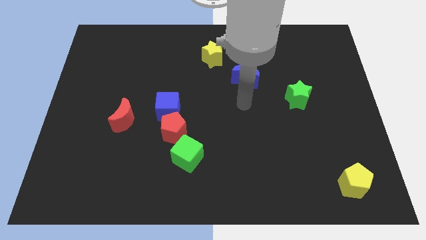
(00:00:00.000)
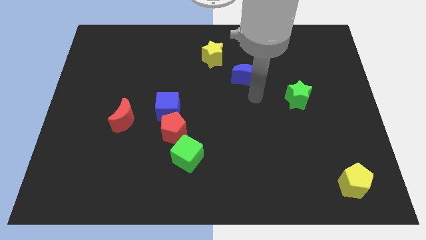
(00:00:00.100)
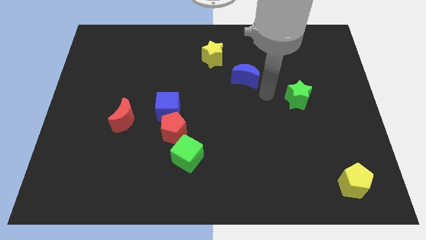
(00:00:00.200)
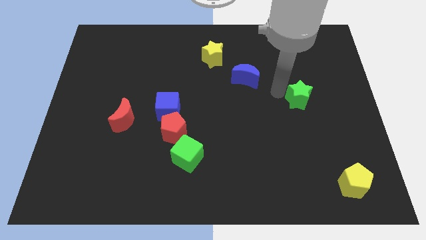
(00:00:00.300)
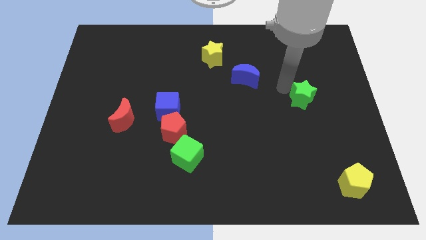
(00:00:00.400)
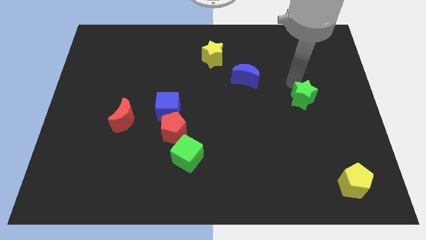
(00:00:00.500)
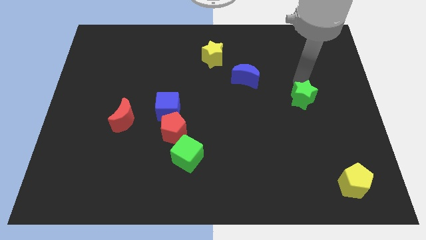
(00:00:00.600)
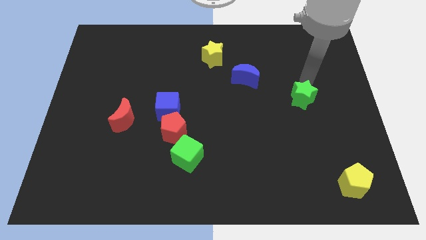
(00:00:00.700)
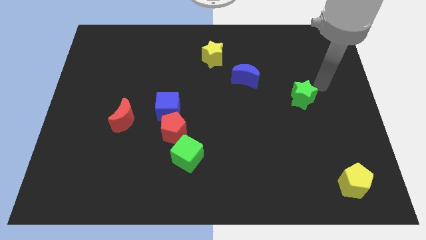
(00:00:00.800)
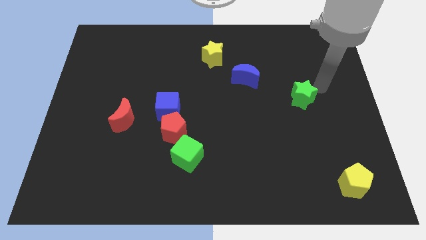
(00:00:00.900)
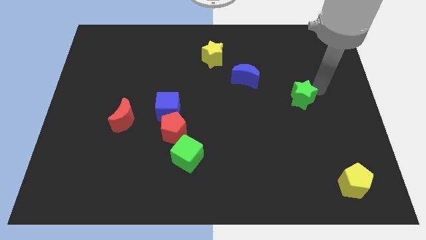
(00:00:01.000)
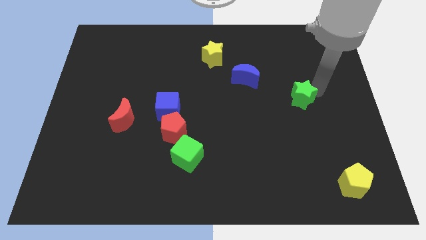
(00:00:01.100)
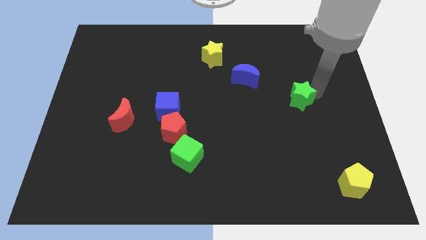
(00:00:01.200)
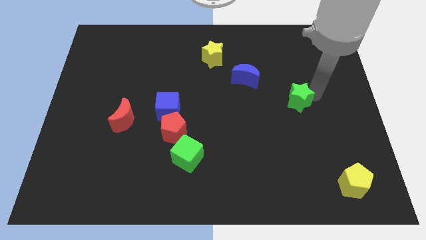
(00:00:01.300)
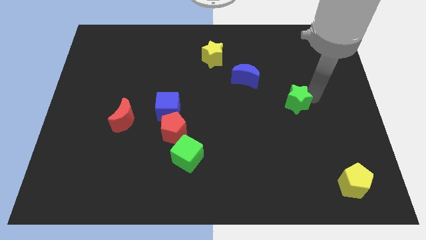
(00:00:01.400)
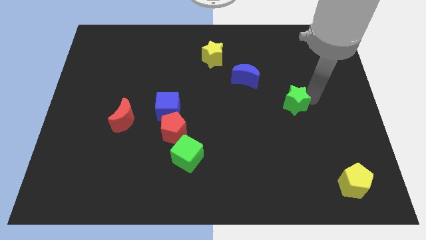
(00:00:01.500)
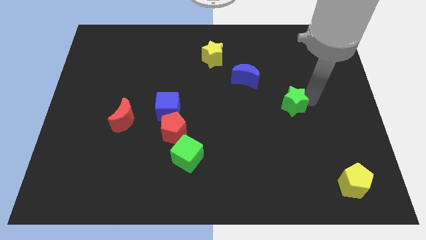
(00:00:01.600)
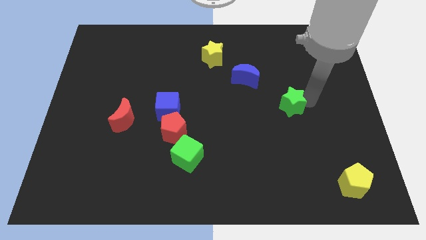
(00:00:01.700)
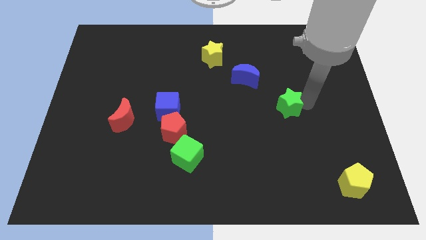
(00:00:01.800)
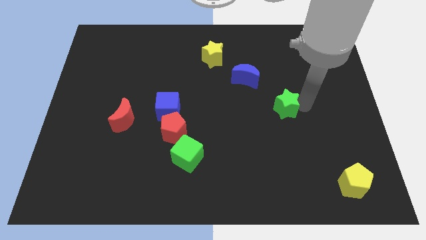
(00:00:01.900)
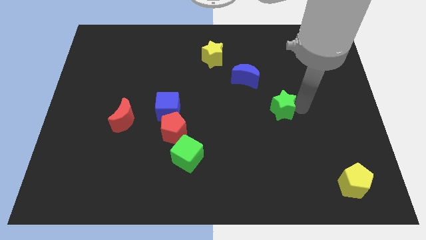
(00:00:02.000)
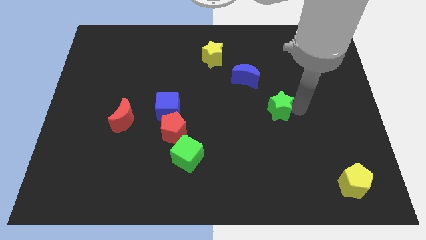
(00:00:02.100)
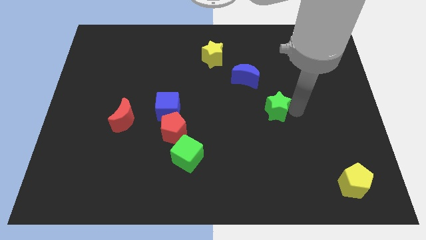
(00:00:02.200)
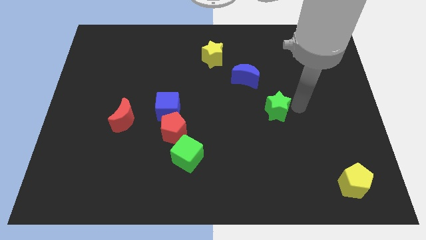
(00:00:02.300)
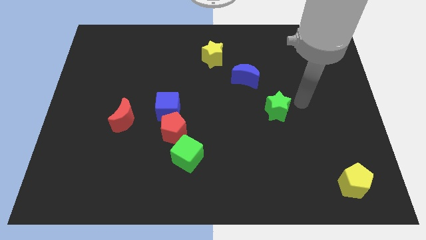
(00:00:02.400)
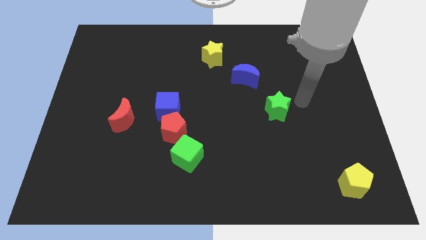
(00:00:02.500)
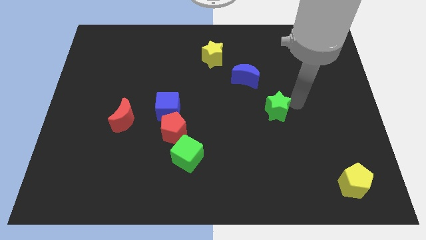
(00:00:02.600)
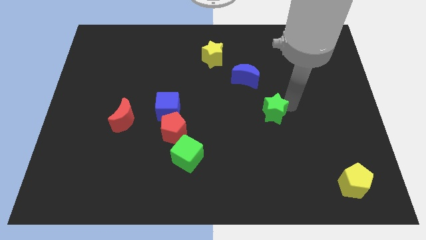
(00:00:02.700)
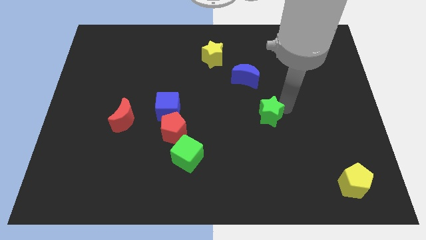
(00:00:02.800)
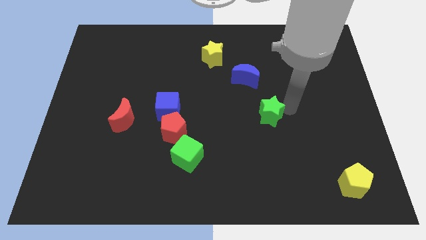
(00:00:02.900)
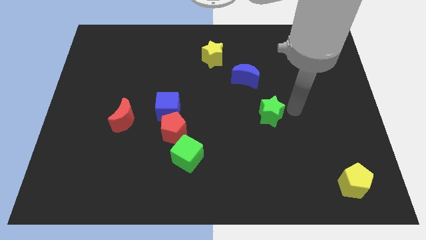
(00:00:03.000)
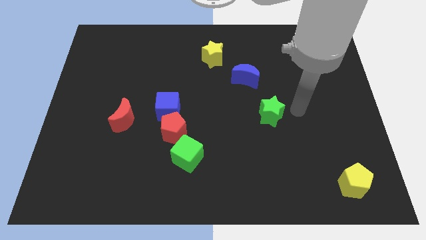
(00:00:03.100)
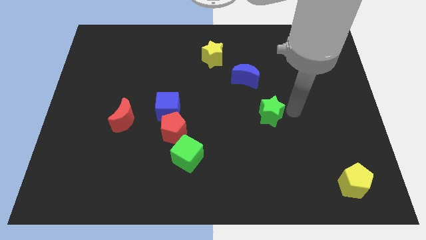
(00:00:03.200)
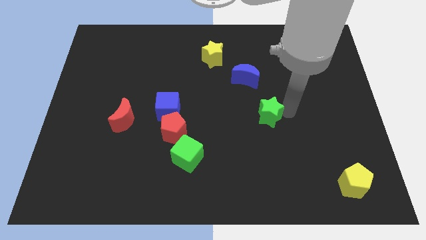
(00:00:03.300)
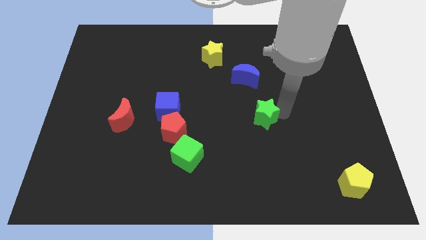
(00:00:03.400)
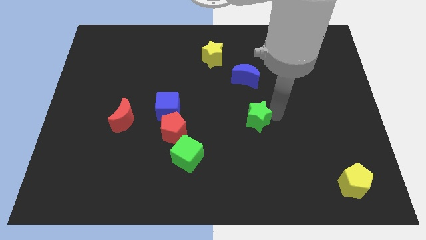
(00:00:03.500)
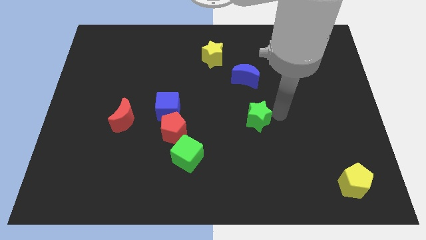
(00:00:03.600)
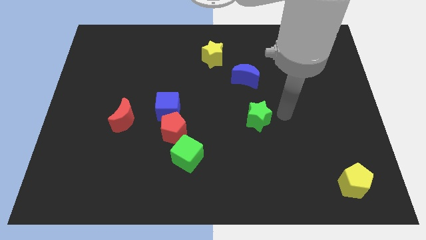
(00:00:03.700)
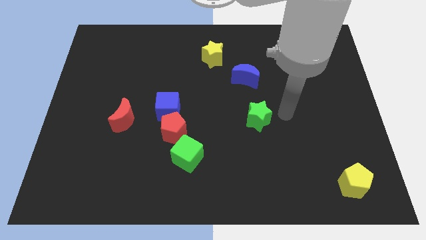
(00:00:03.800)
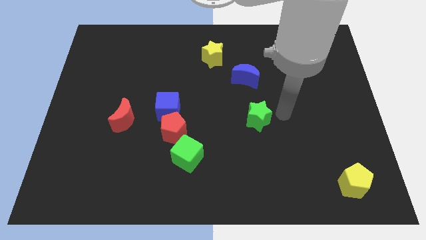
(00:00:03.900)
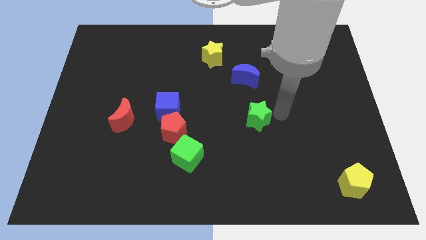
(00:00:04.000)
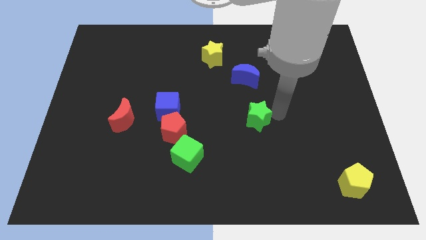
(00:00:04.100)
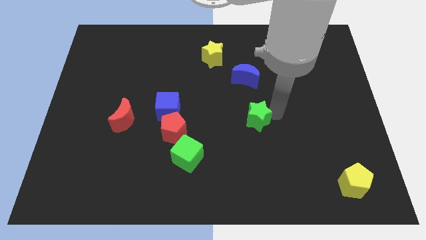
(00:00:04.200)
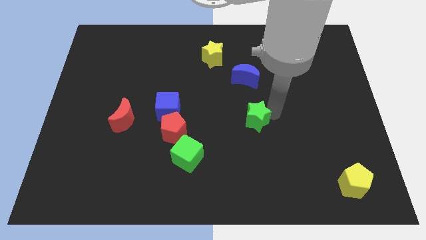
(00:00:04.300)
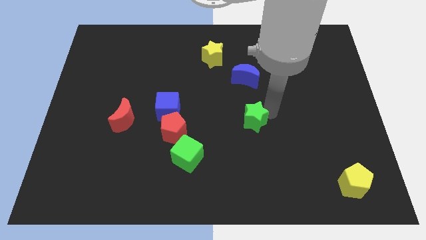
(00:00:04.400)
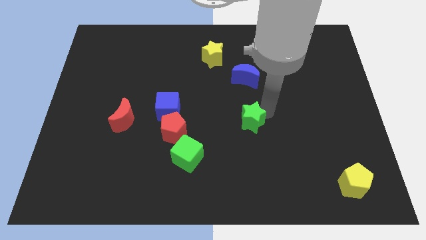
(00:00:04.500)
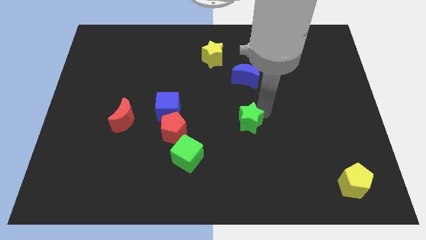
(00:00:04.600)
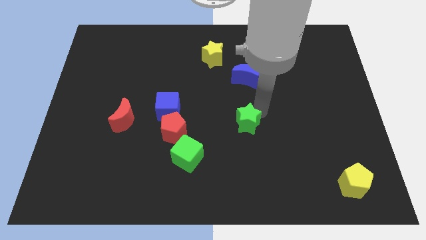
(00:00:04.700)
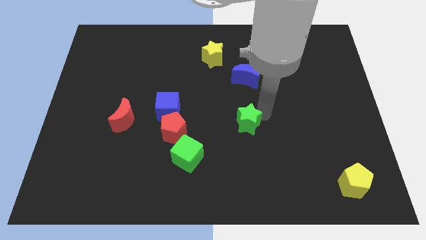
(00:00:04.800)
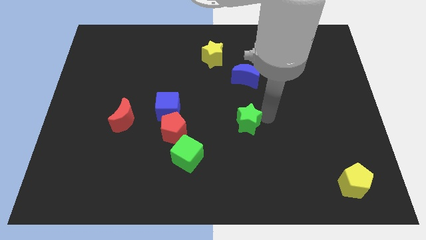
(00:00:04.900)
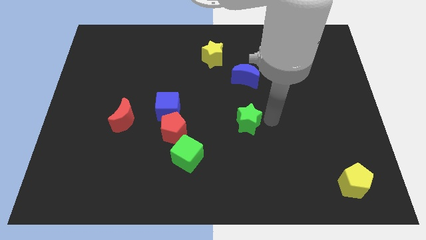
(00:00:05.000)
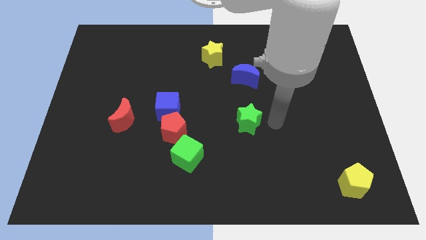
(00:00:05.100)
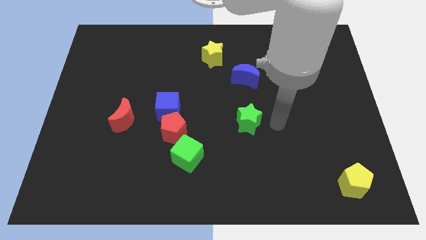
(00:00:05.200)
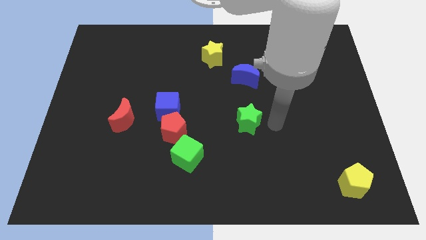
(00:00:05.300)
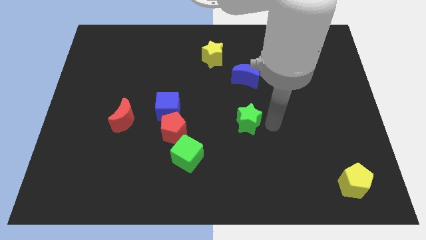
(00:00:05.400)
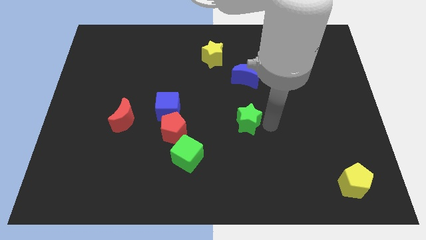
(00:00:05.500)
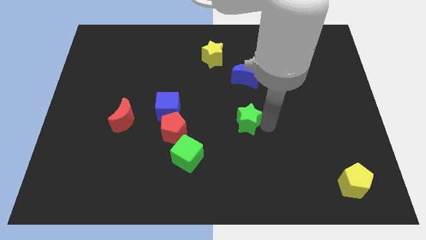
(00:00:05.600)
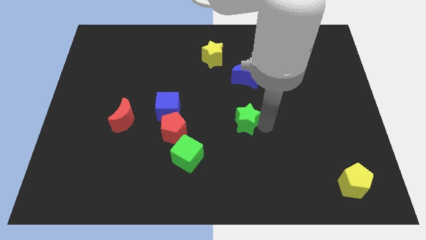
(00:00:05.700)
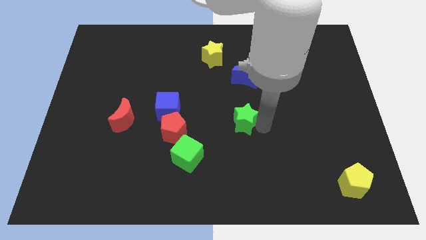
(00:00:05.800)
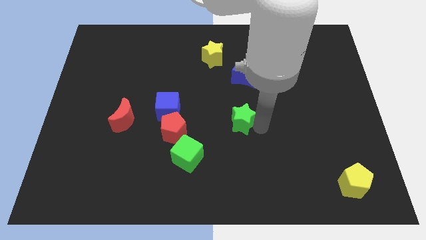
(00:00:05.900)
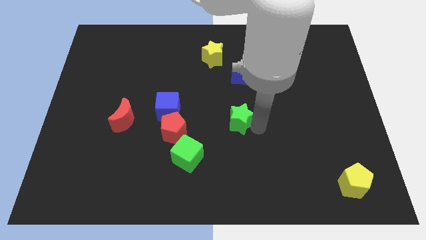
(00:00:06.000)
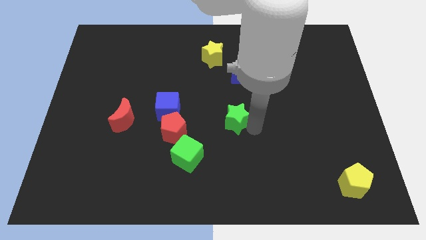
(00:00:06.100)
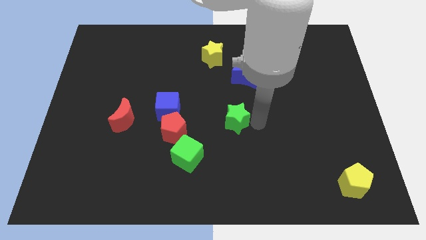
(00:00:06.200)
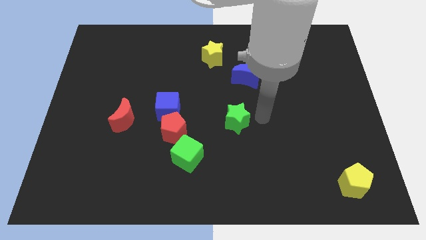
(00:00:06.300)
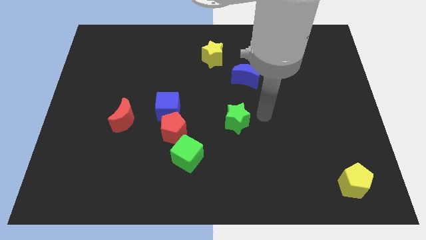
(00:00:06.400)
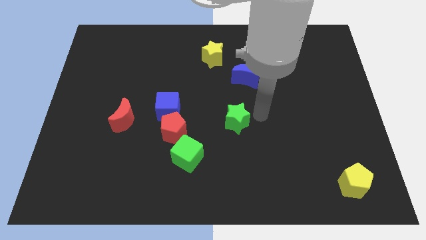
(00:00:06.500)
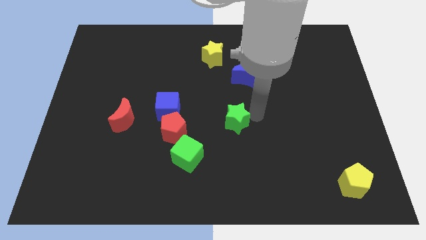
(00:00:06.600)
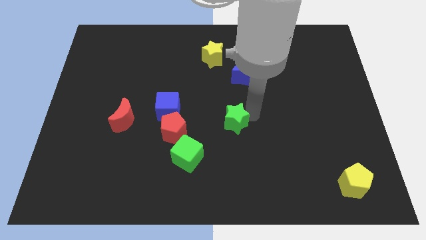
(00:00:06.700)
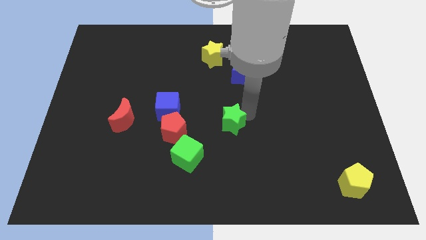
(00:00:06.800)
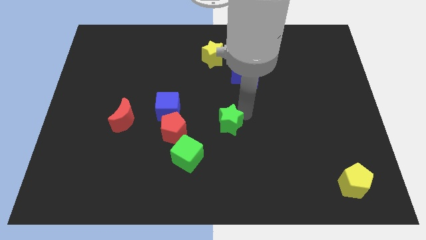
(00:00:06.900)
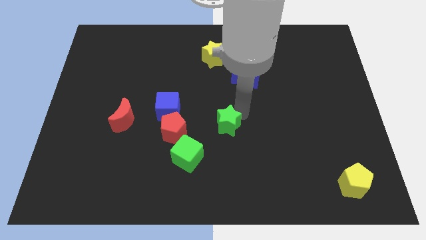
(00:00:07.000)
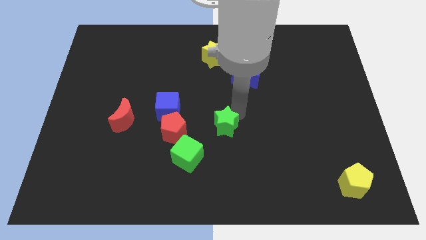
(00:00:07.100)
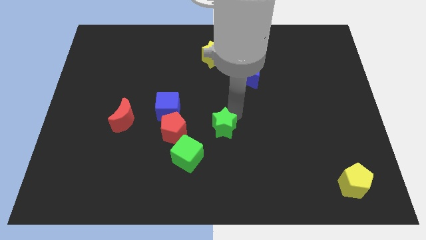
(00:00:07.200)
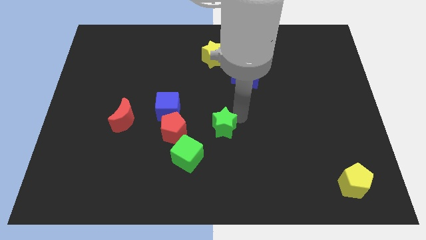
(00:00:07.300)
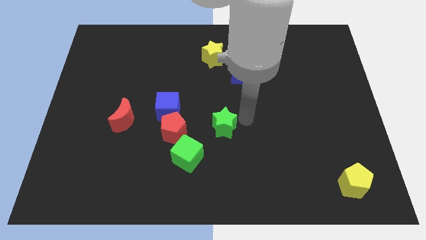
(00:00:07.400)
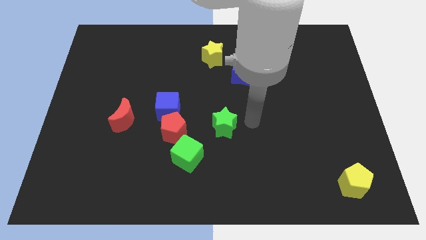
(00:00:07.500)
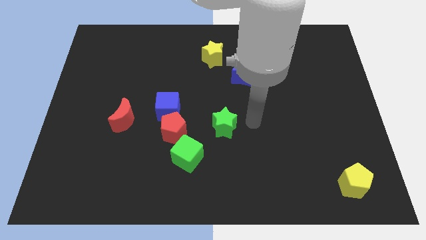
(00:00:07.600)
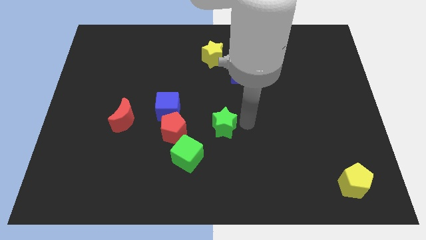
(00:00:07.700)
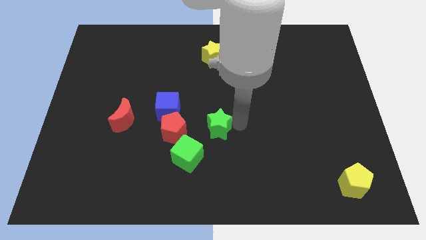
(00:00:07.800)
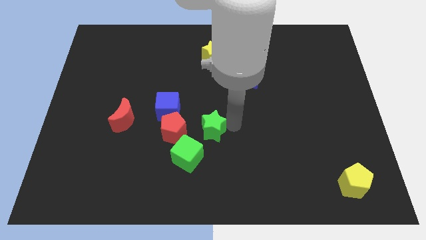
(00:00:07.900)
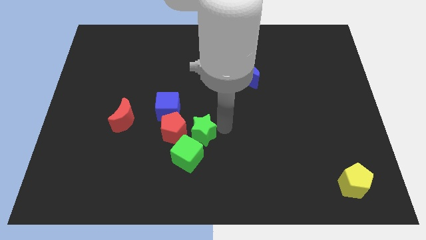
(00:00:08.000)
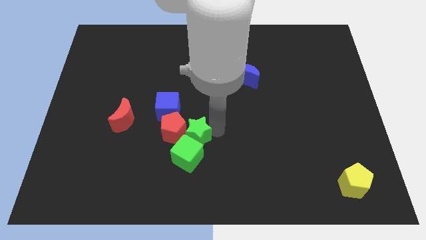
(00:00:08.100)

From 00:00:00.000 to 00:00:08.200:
move the green star to the red pentagon
